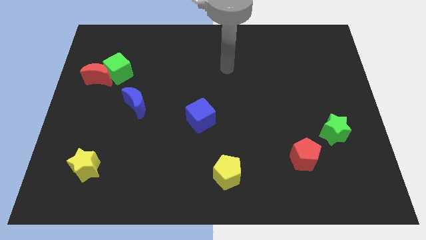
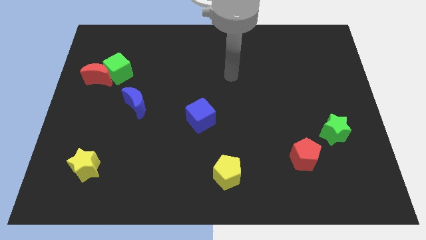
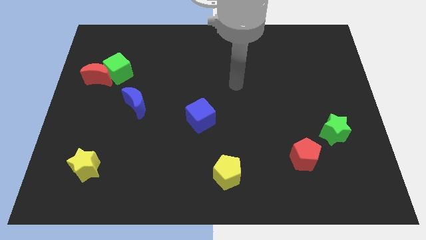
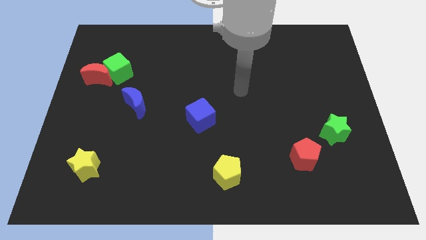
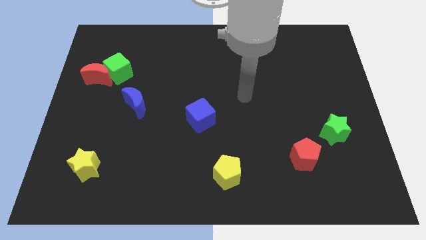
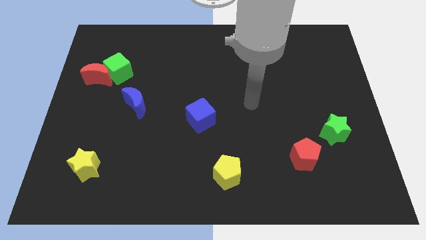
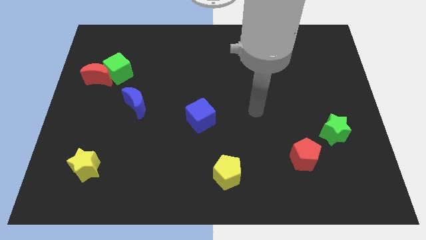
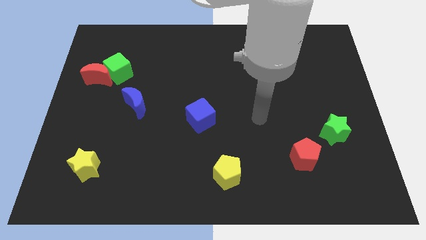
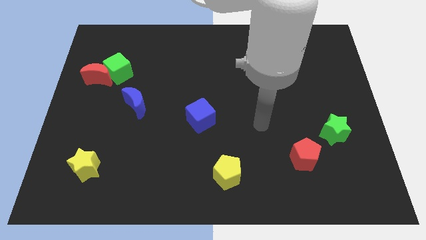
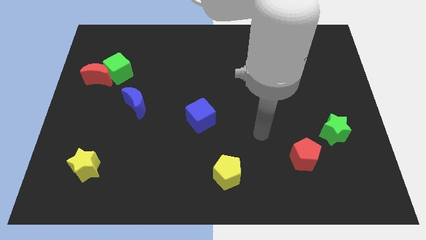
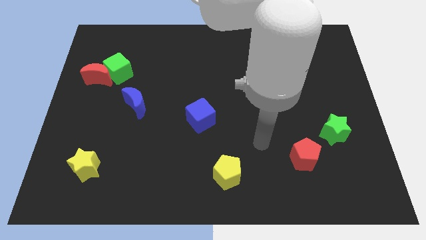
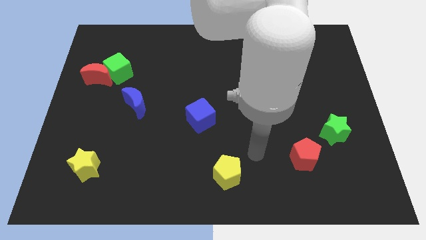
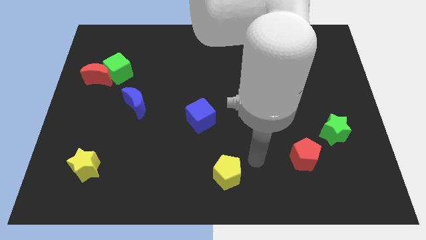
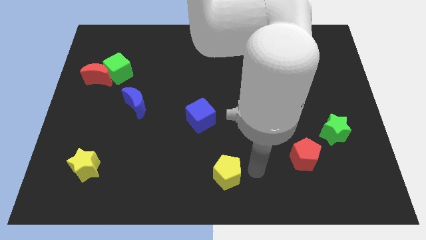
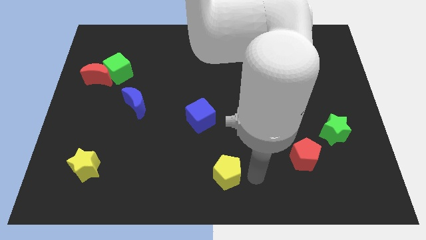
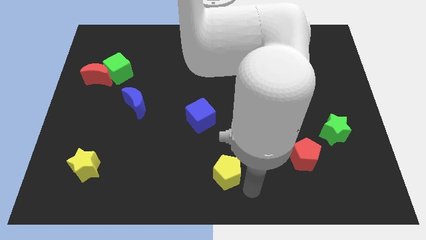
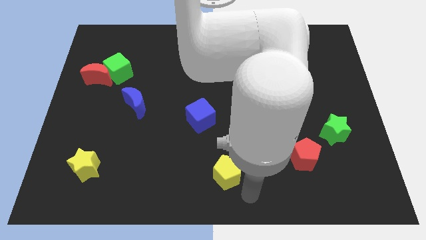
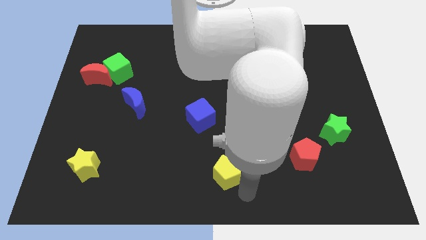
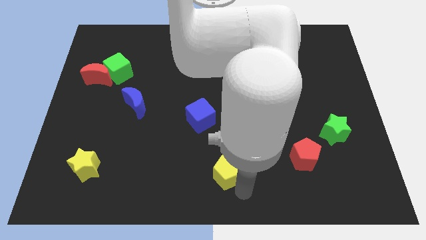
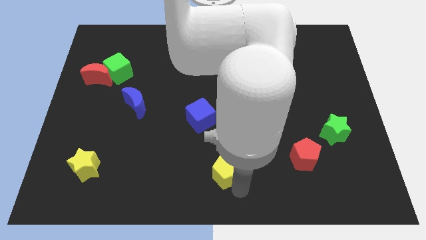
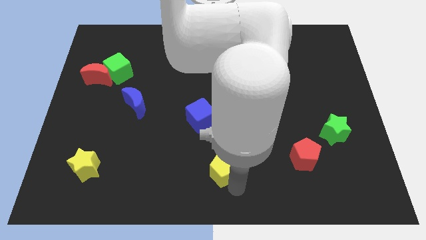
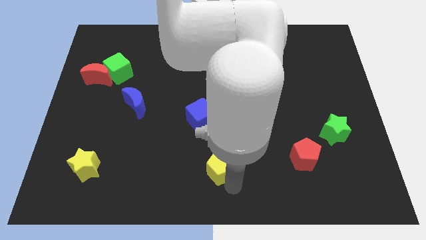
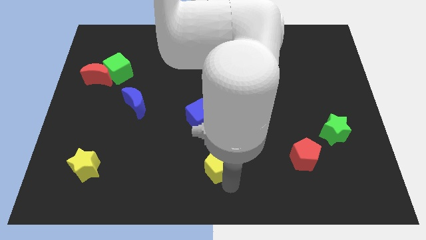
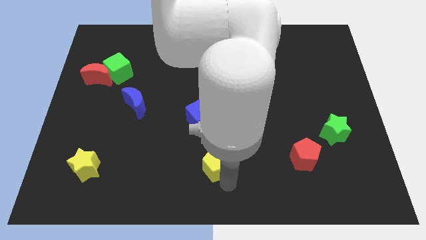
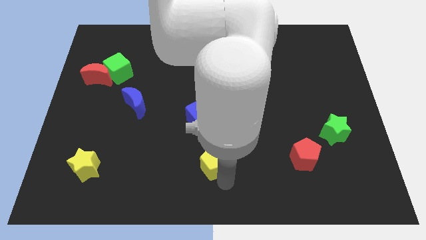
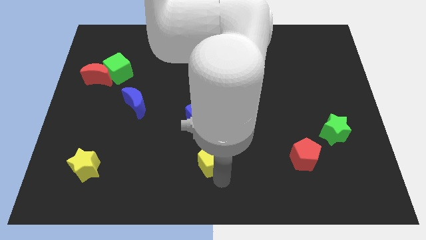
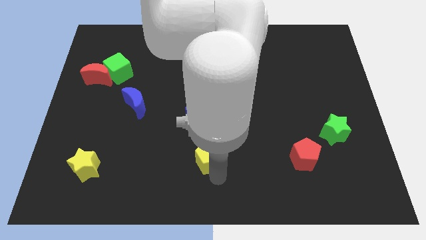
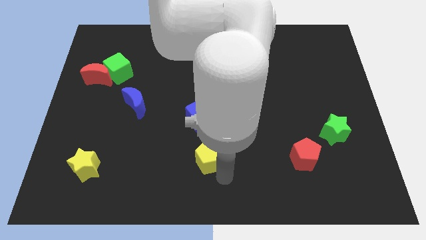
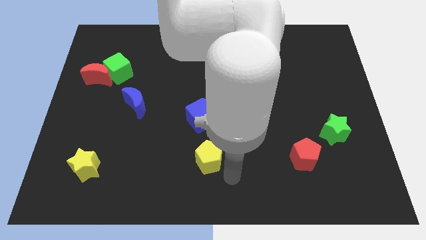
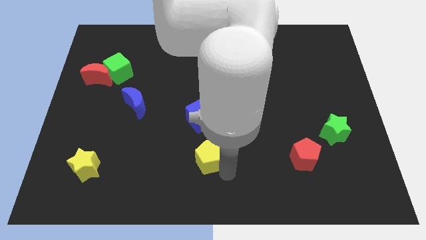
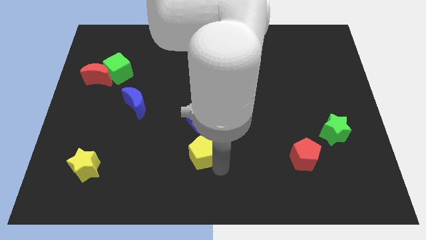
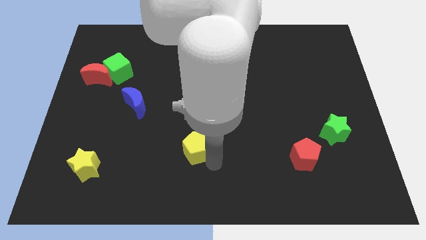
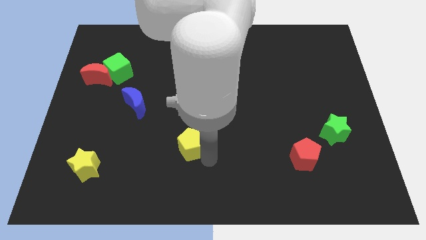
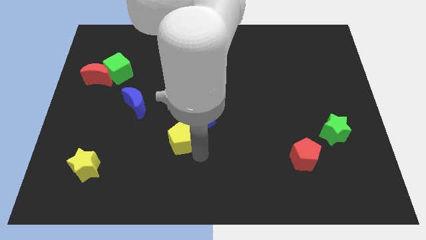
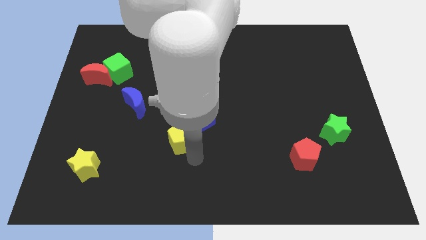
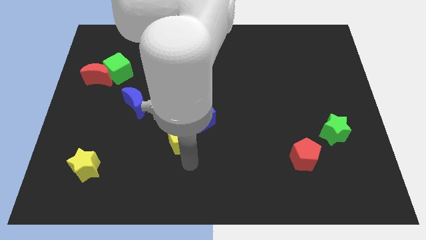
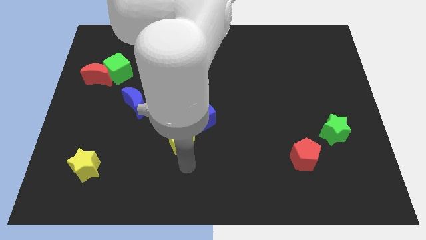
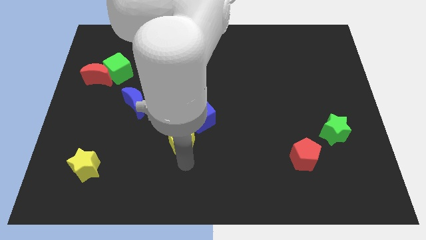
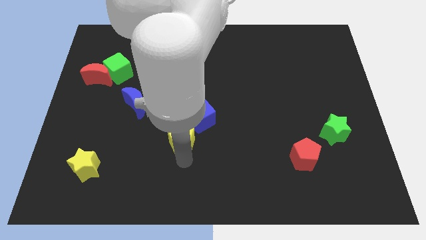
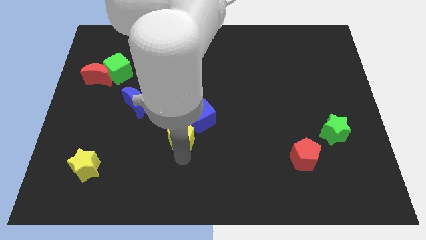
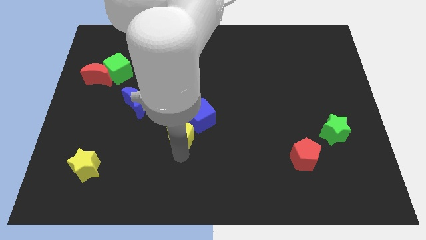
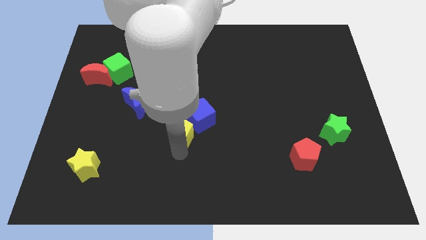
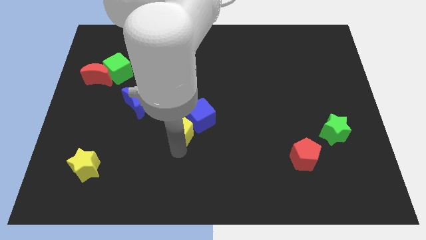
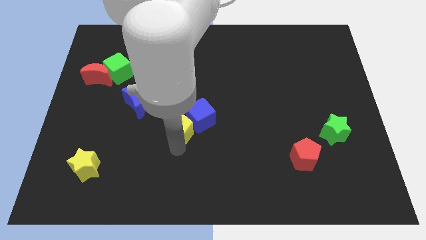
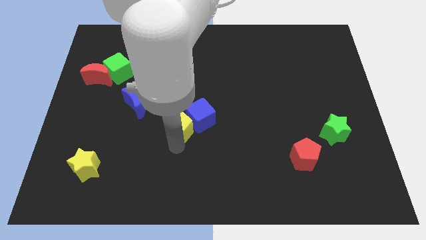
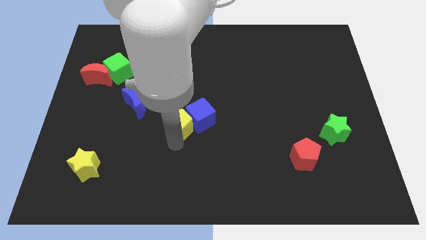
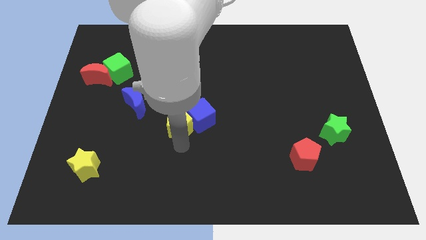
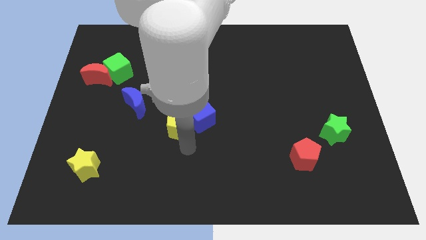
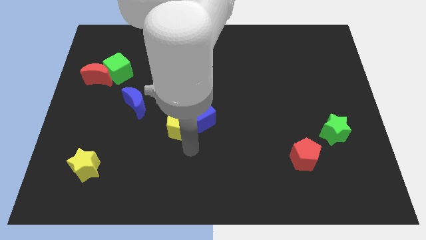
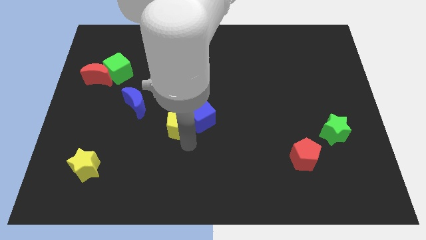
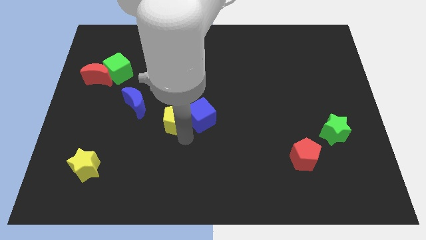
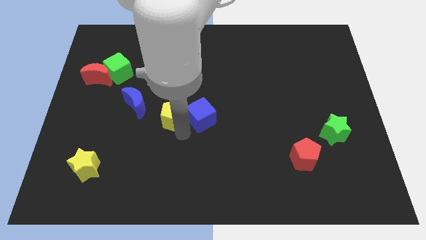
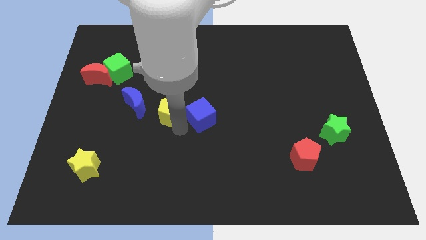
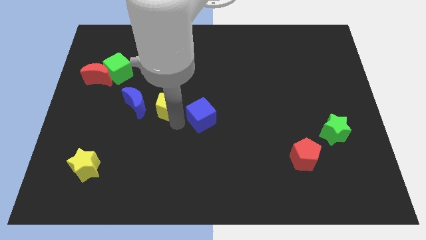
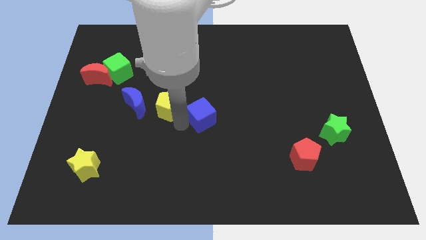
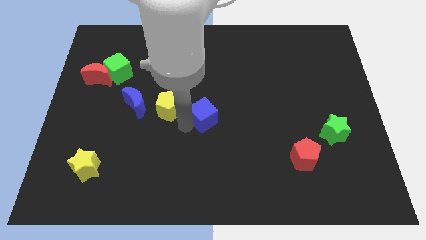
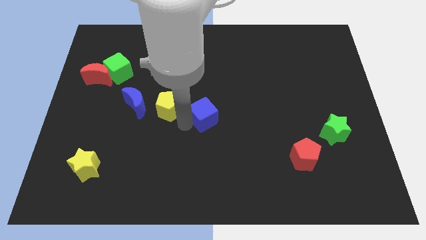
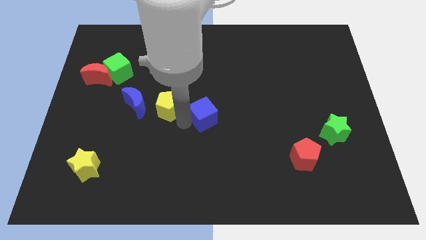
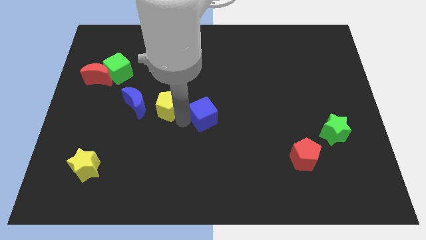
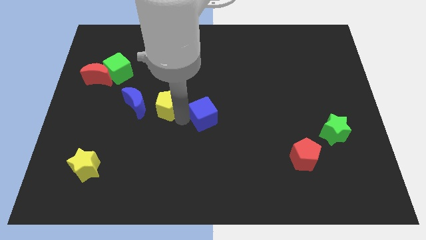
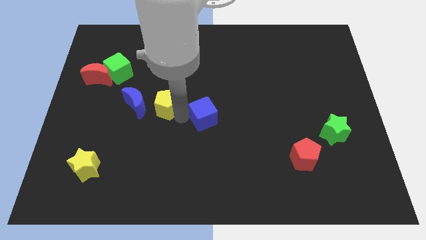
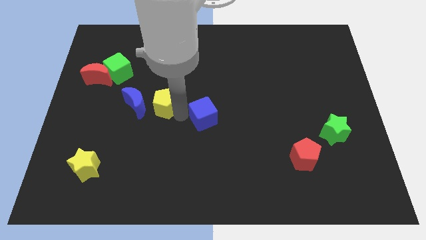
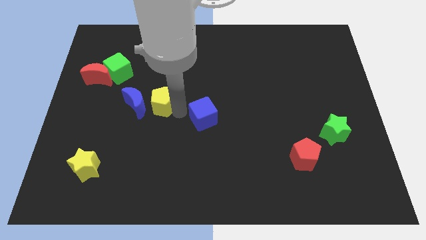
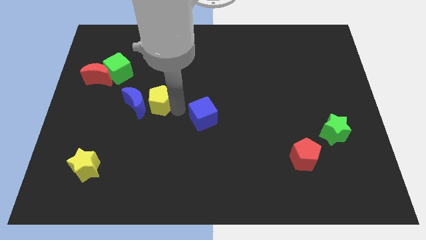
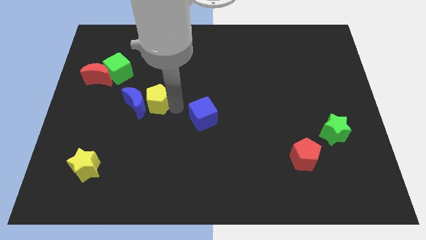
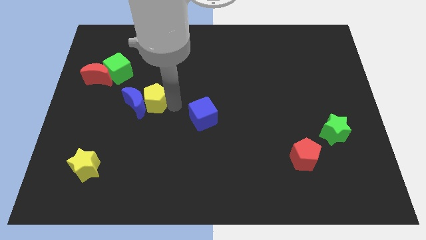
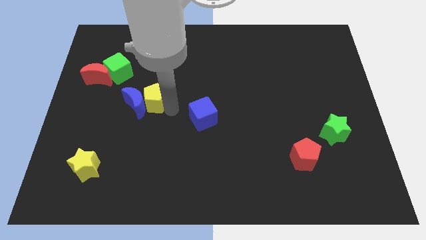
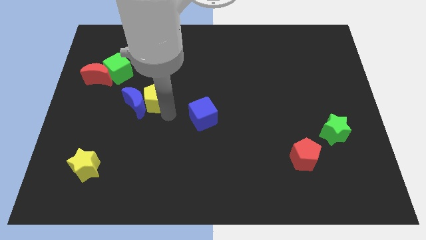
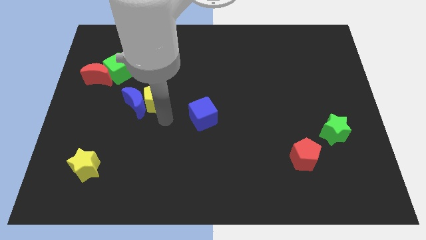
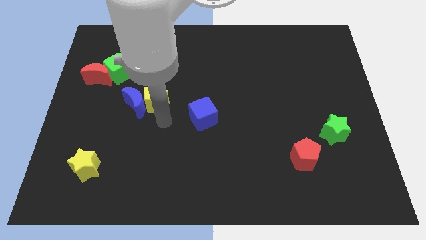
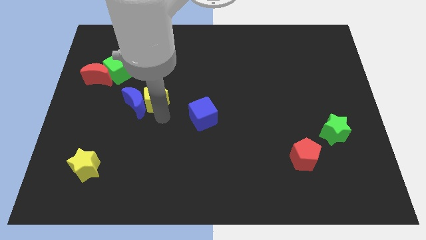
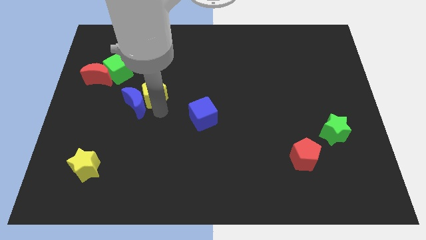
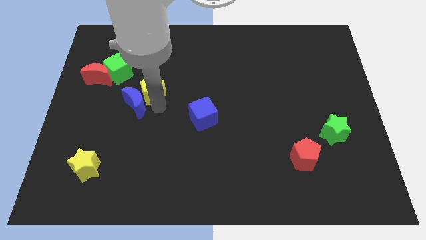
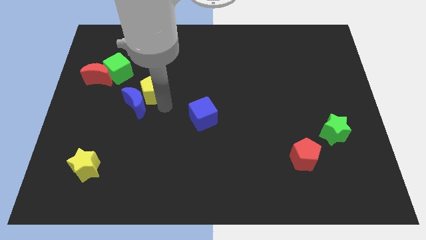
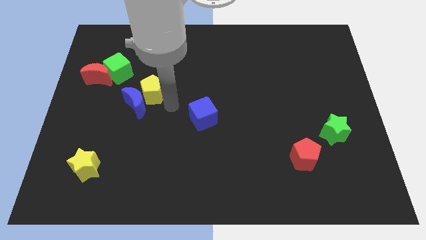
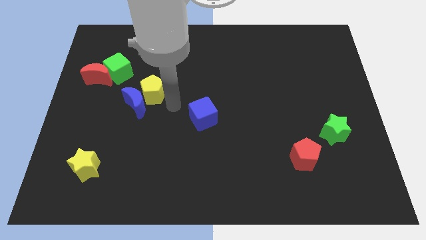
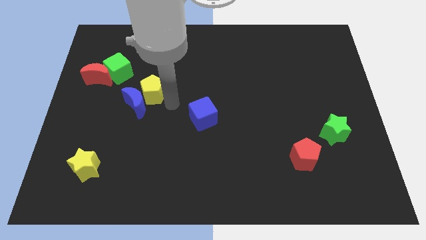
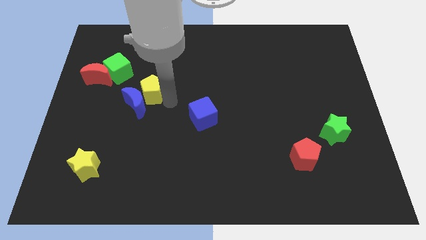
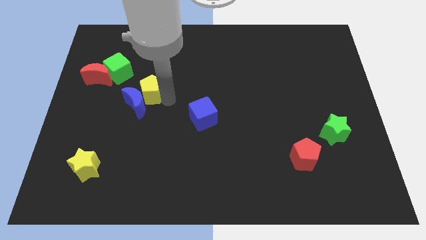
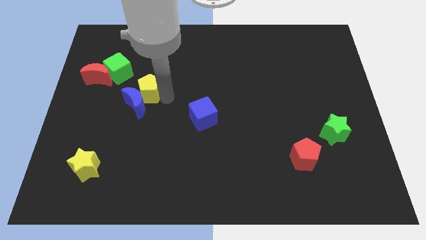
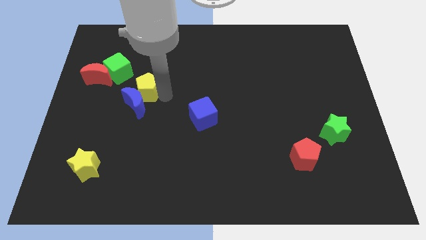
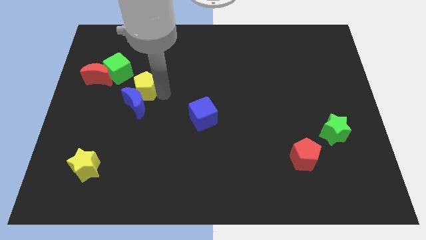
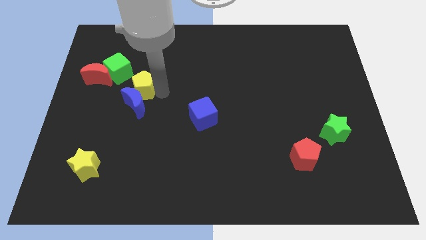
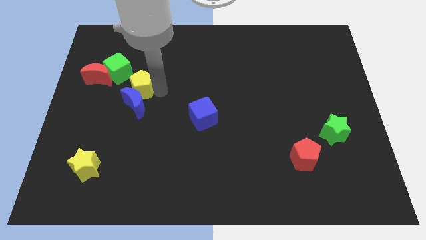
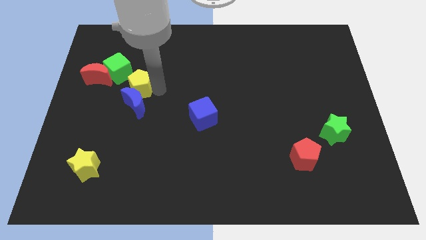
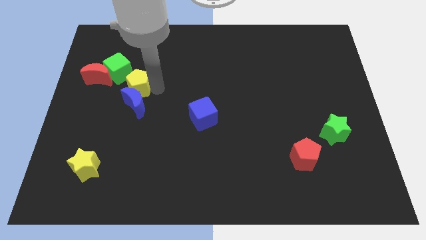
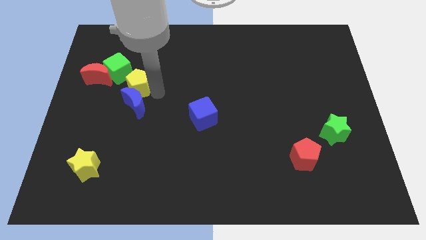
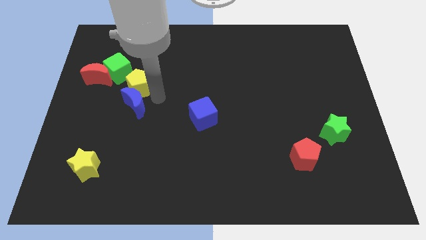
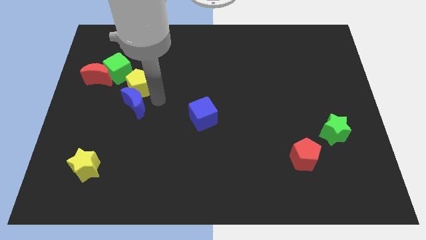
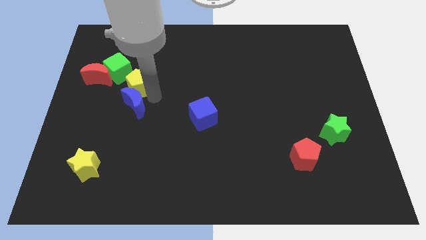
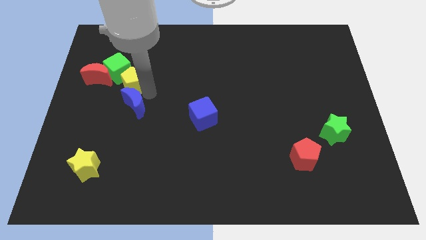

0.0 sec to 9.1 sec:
slide the yellow pentagon towards the green cube
